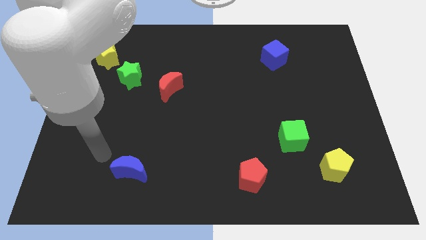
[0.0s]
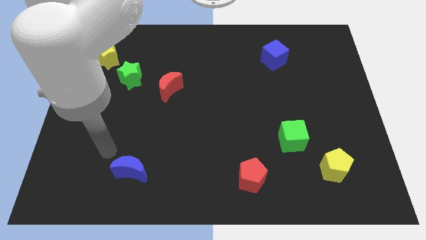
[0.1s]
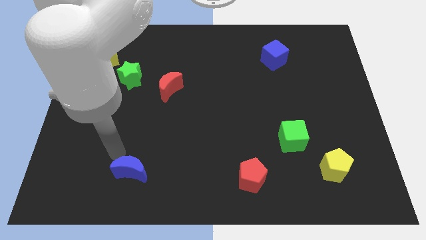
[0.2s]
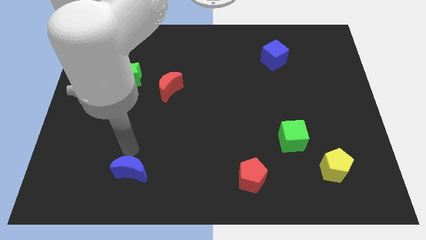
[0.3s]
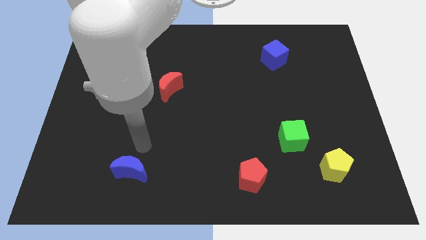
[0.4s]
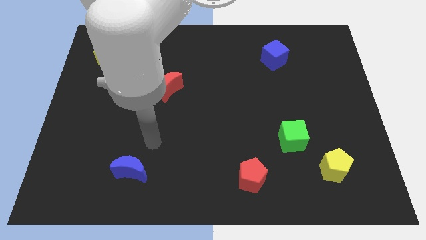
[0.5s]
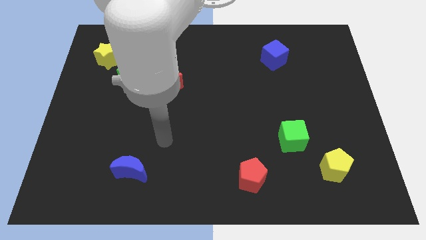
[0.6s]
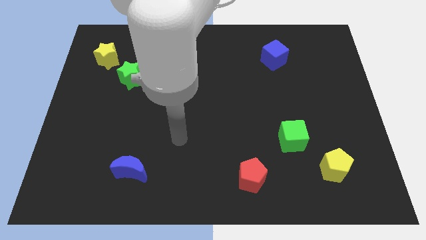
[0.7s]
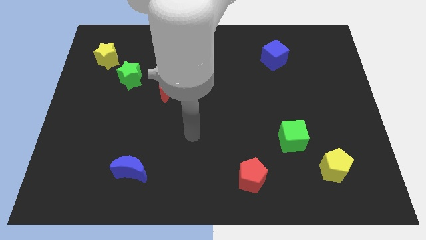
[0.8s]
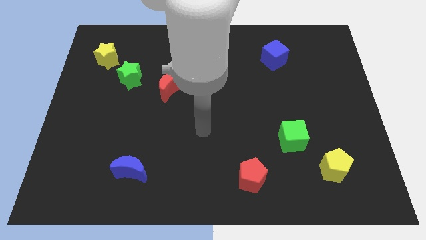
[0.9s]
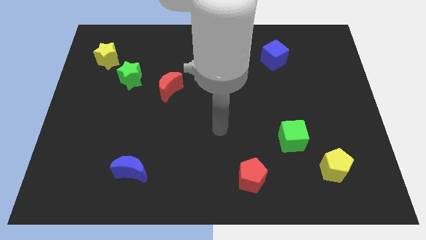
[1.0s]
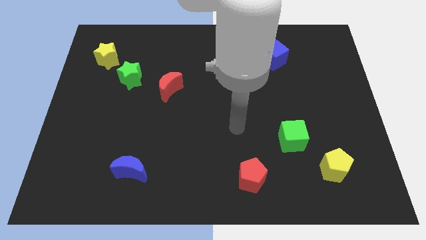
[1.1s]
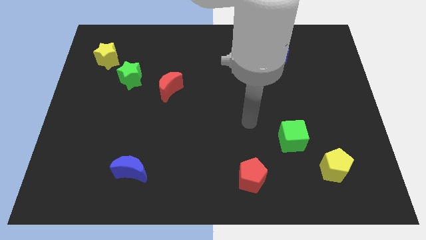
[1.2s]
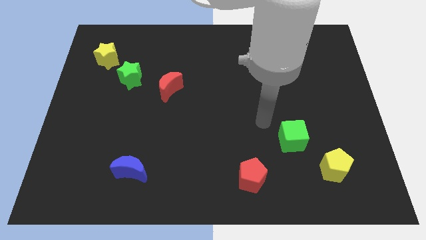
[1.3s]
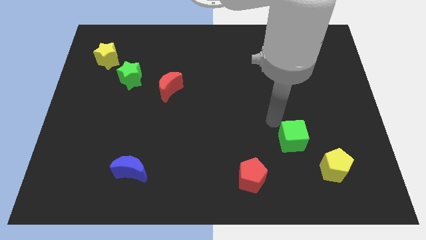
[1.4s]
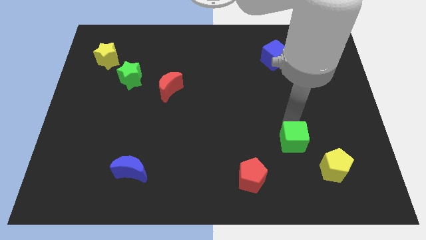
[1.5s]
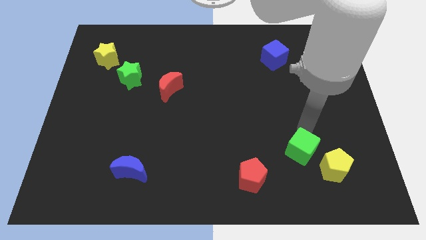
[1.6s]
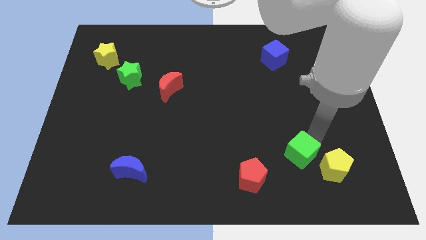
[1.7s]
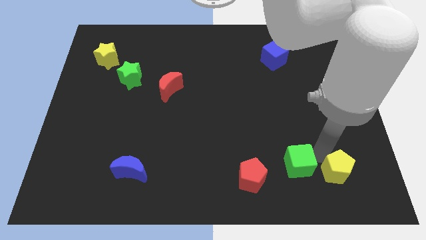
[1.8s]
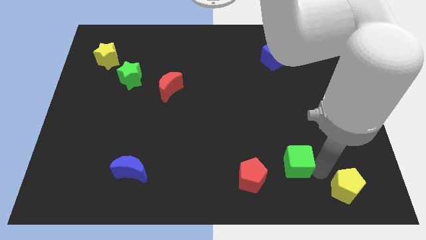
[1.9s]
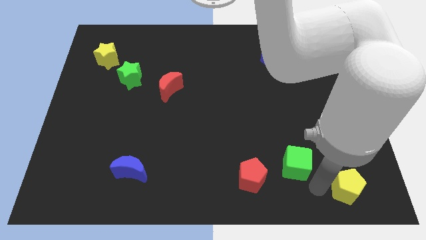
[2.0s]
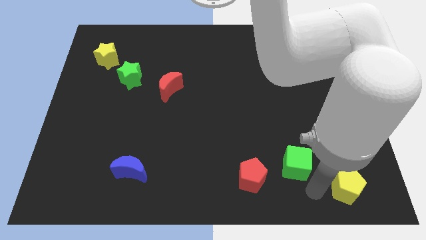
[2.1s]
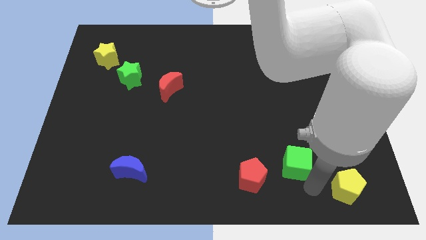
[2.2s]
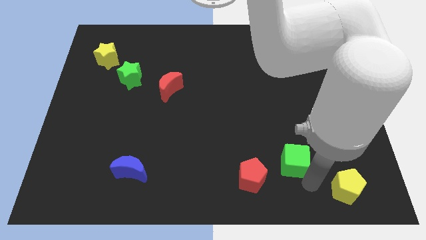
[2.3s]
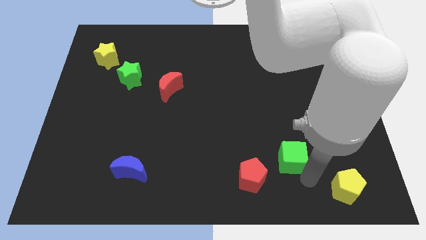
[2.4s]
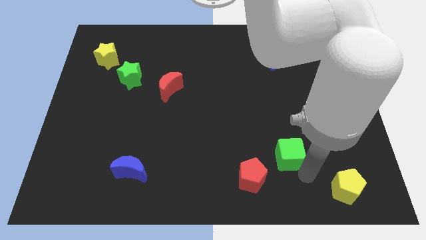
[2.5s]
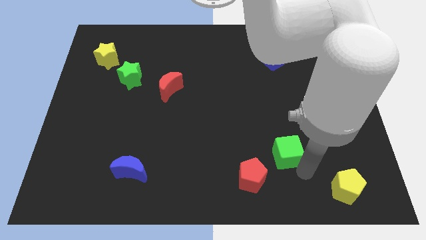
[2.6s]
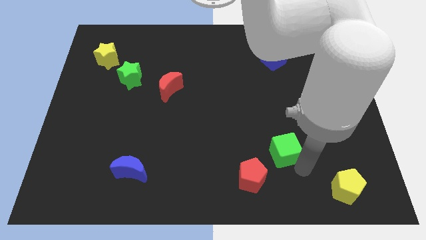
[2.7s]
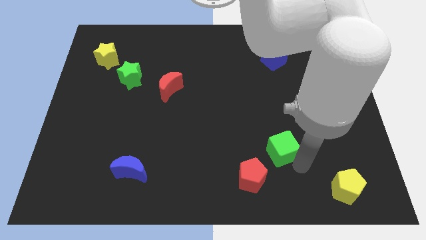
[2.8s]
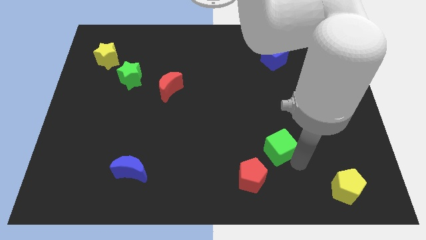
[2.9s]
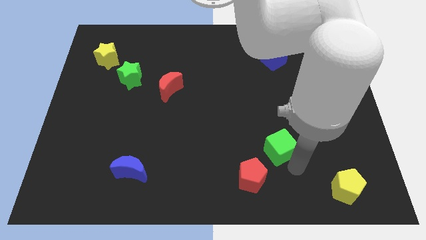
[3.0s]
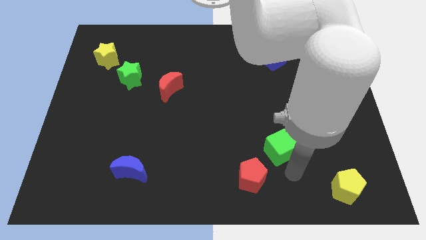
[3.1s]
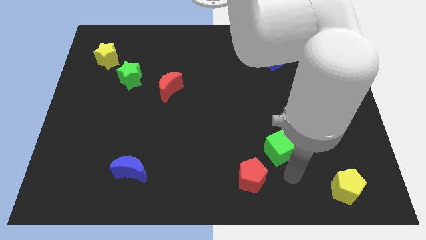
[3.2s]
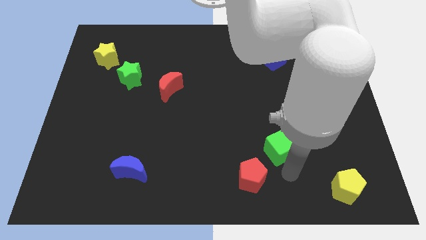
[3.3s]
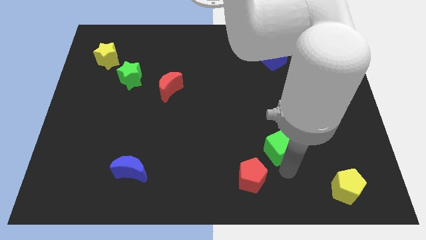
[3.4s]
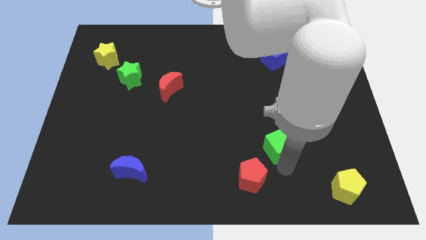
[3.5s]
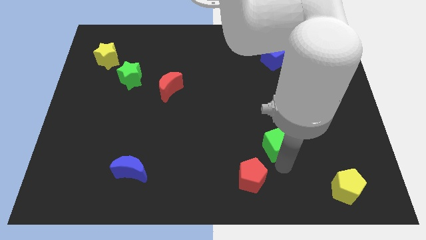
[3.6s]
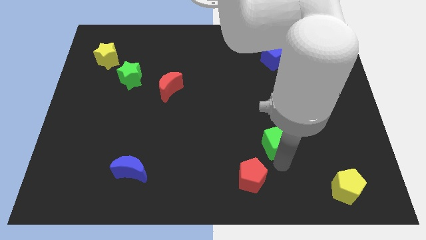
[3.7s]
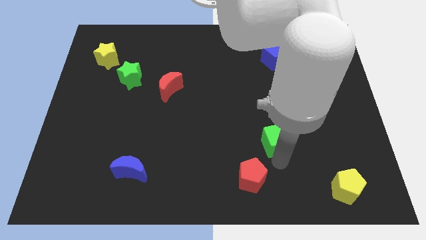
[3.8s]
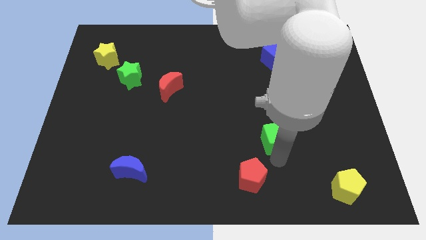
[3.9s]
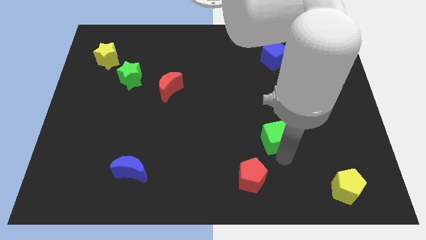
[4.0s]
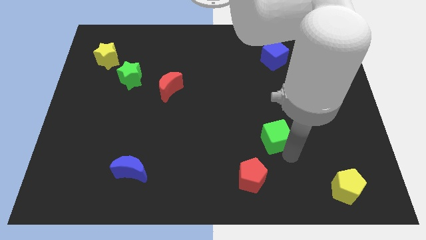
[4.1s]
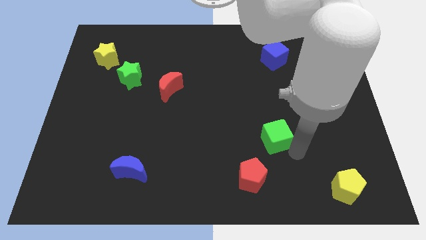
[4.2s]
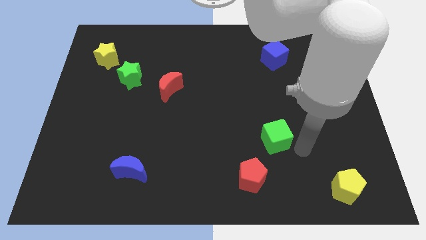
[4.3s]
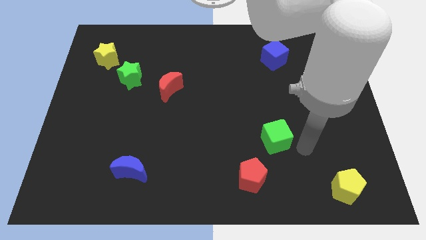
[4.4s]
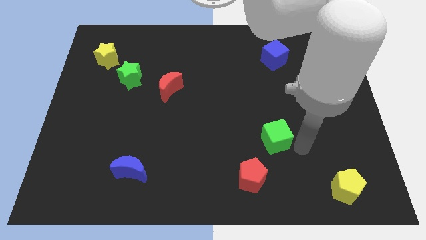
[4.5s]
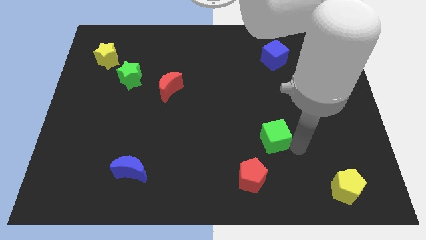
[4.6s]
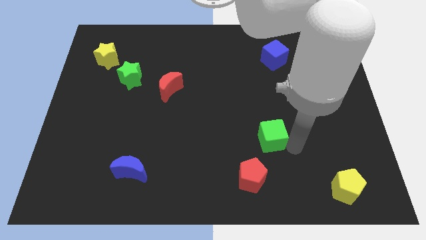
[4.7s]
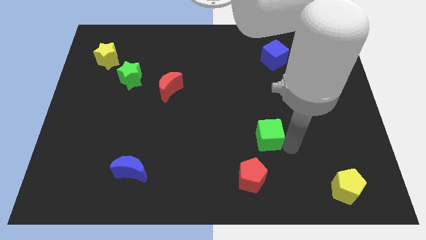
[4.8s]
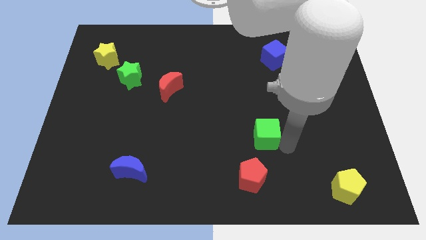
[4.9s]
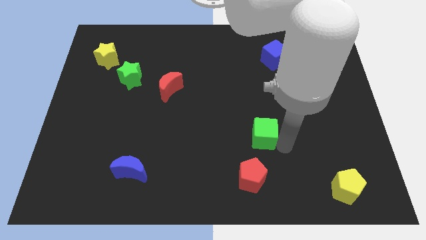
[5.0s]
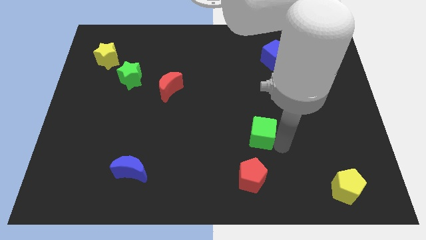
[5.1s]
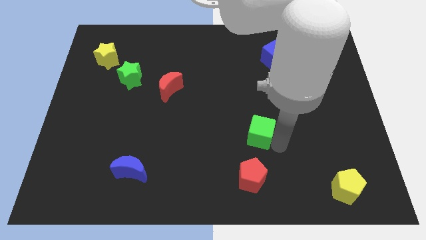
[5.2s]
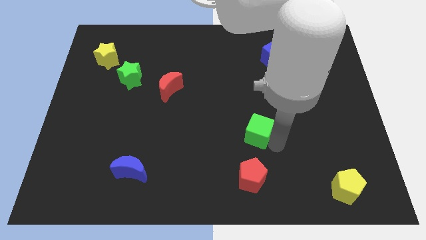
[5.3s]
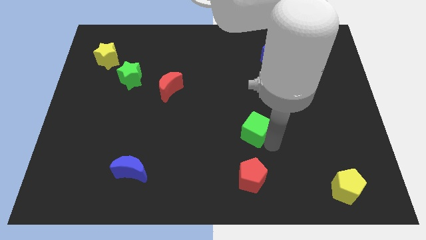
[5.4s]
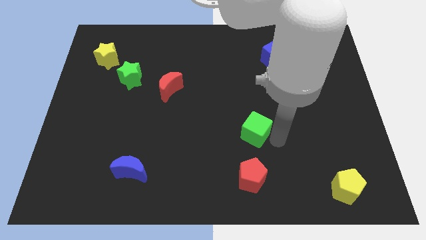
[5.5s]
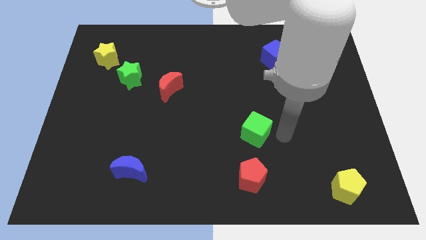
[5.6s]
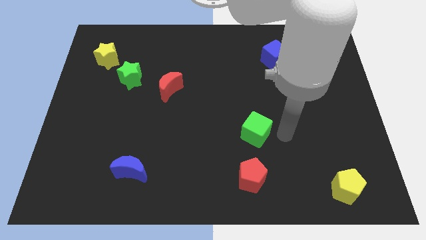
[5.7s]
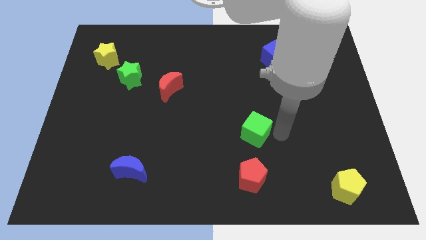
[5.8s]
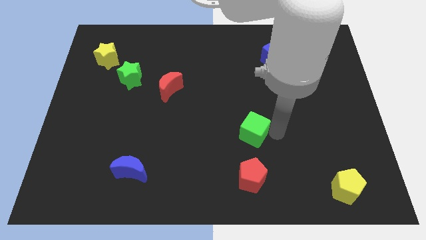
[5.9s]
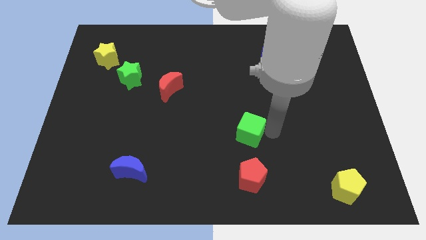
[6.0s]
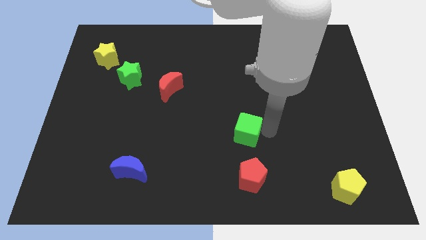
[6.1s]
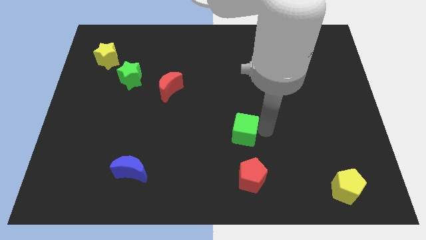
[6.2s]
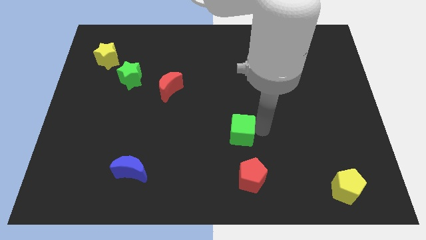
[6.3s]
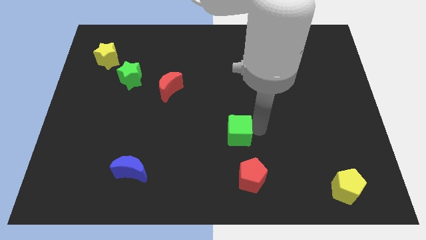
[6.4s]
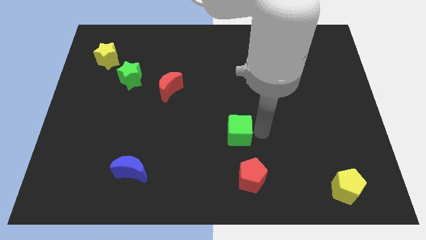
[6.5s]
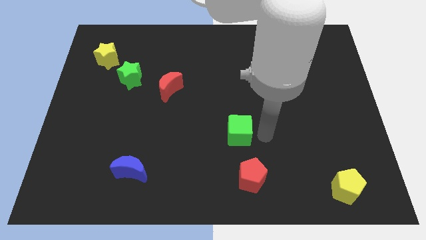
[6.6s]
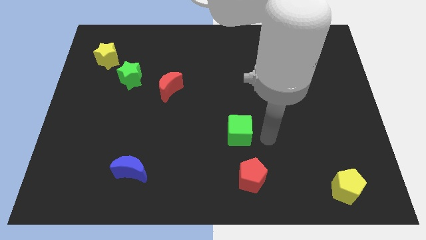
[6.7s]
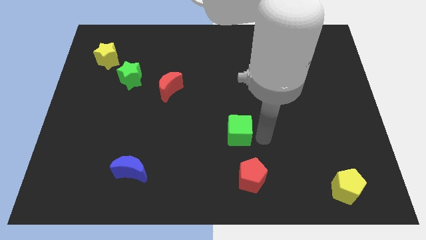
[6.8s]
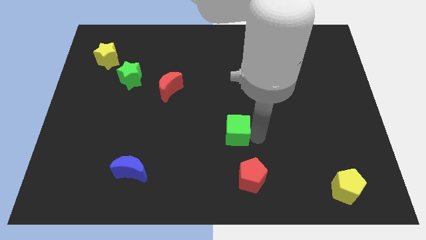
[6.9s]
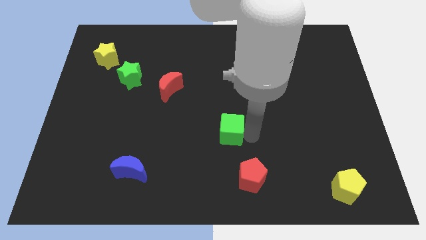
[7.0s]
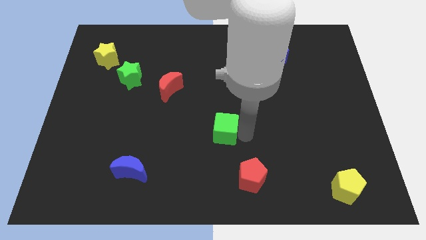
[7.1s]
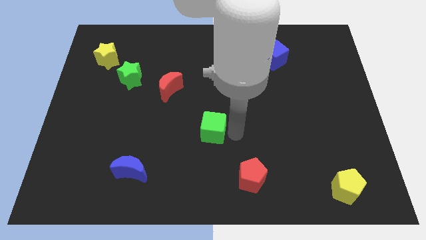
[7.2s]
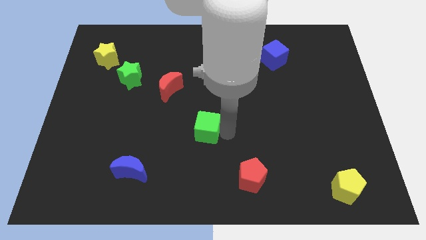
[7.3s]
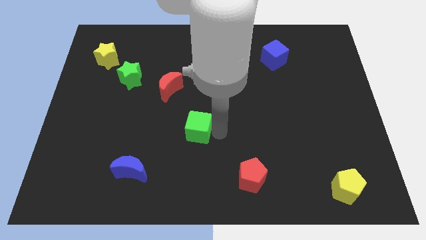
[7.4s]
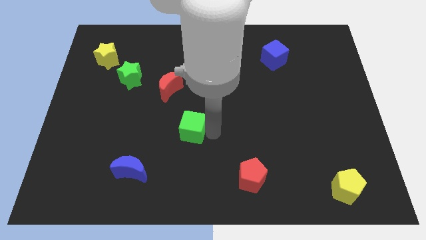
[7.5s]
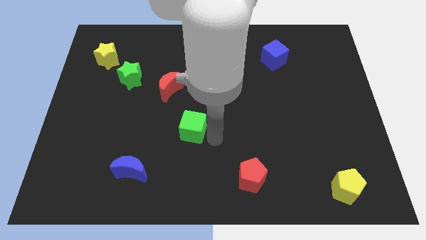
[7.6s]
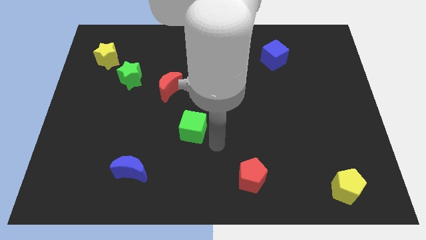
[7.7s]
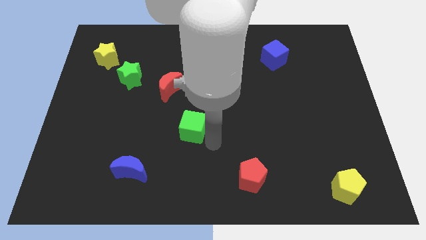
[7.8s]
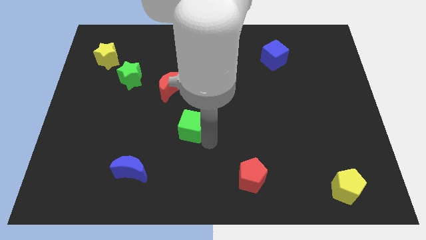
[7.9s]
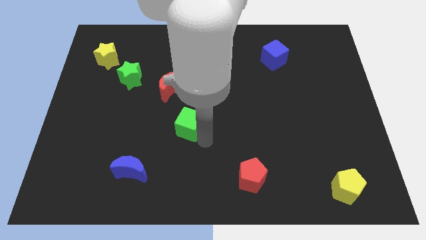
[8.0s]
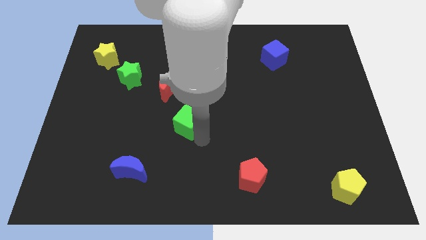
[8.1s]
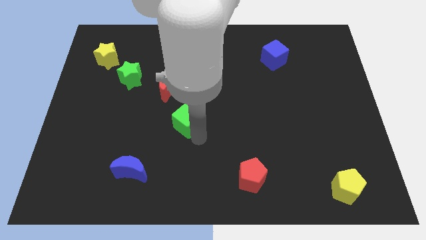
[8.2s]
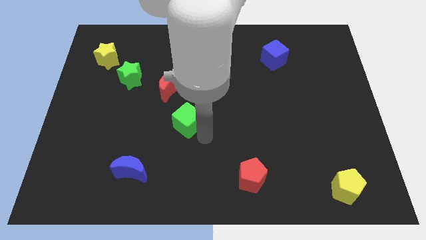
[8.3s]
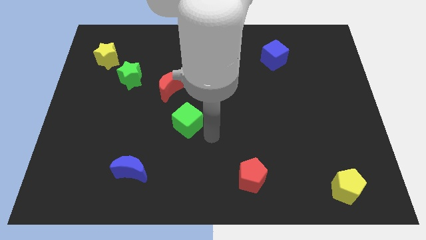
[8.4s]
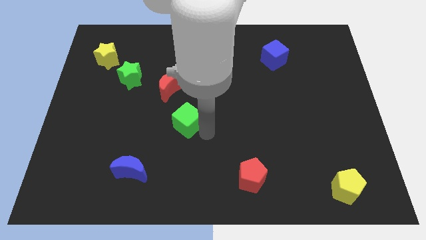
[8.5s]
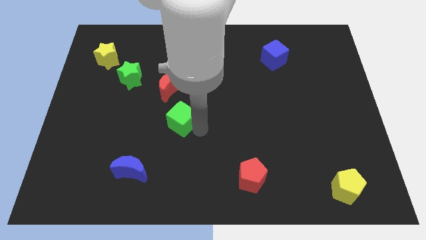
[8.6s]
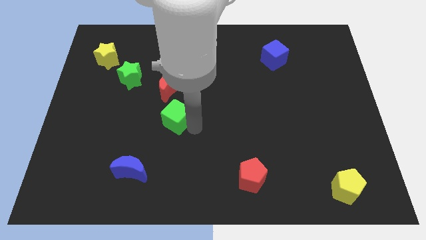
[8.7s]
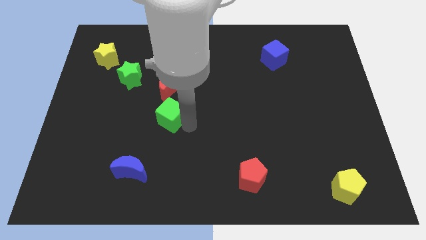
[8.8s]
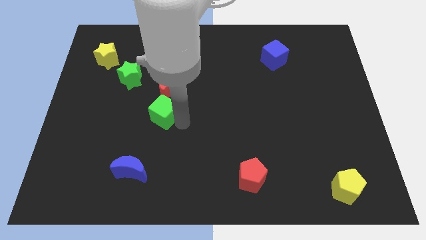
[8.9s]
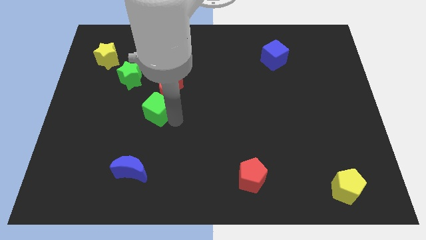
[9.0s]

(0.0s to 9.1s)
slide the green cube to the bottom left side of the red moon
